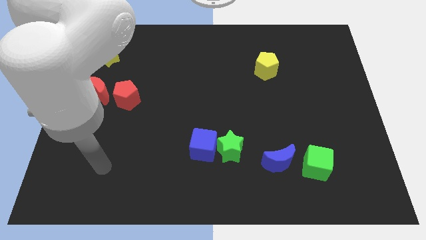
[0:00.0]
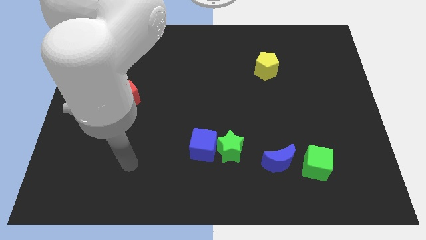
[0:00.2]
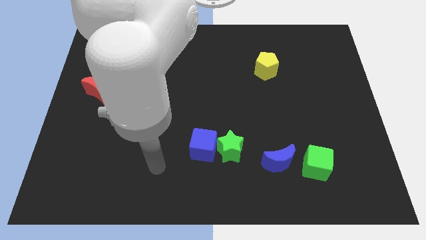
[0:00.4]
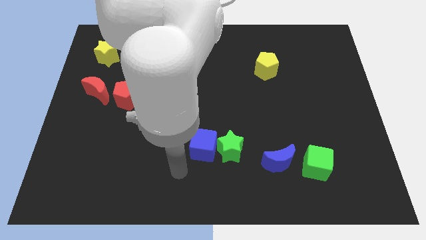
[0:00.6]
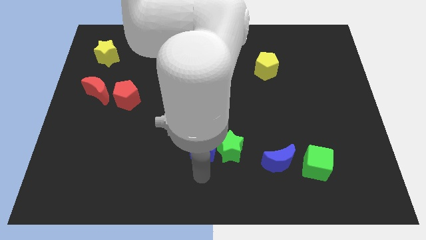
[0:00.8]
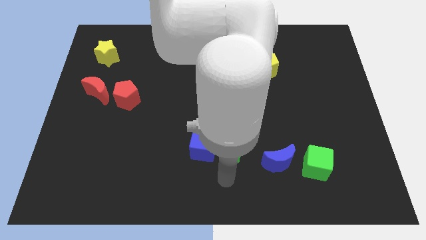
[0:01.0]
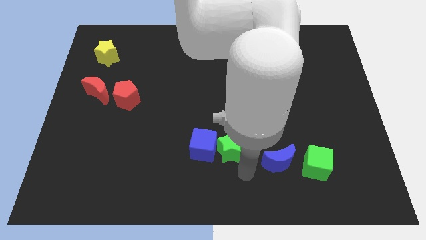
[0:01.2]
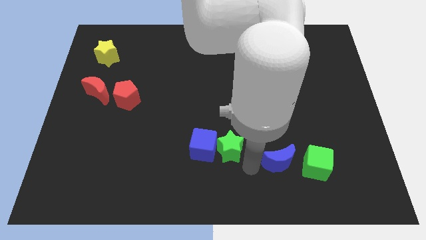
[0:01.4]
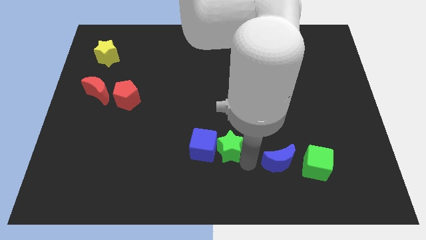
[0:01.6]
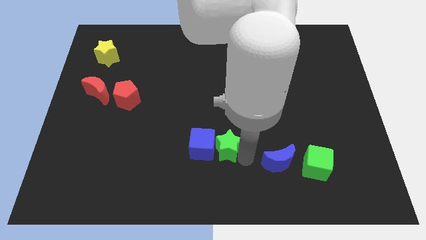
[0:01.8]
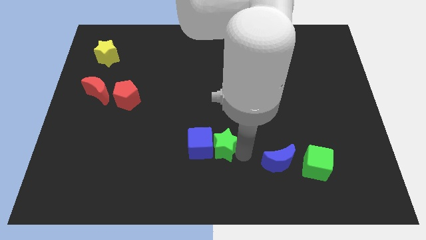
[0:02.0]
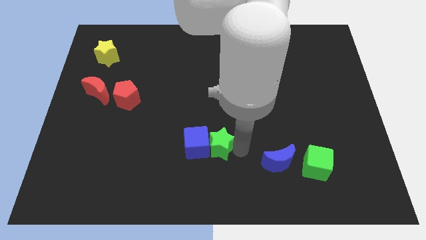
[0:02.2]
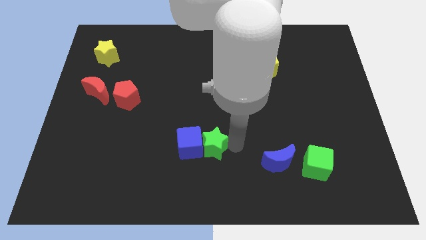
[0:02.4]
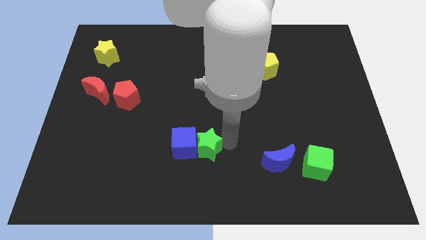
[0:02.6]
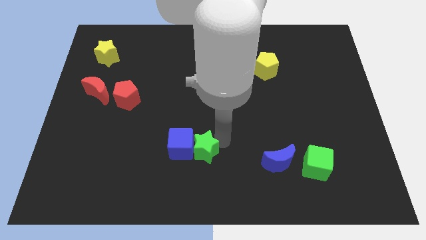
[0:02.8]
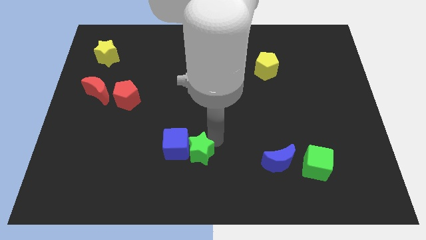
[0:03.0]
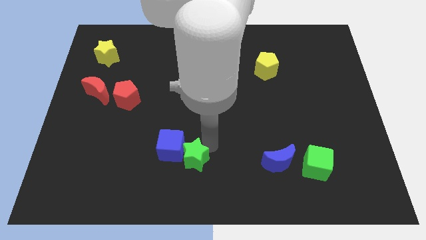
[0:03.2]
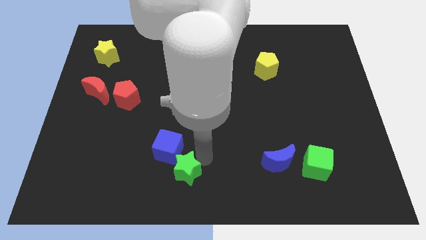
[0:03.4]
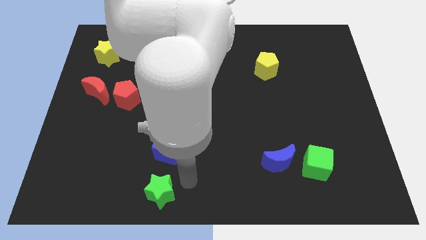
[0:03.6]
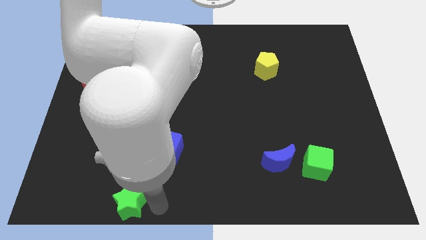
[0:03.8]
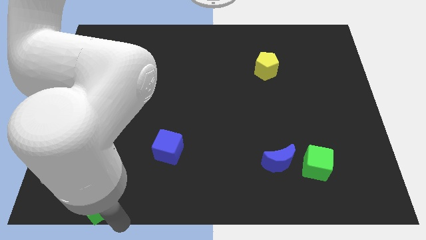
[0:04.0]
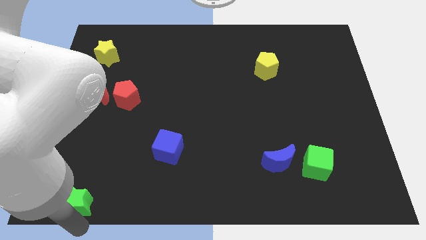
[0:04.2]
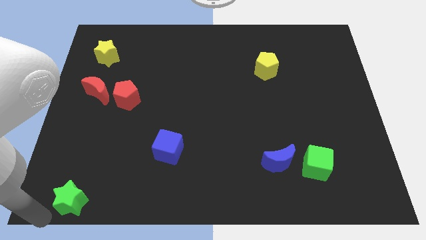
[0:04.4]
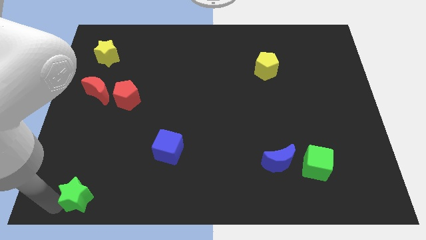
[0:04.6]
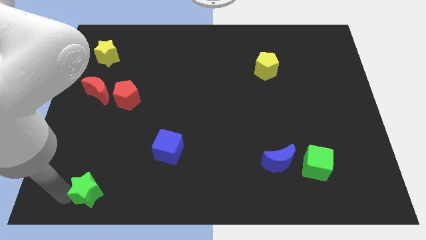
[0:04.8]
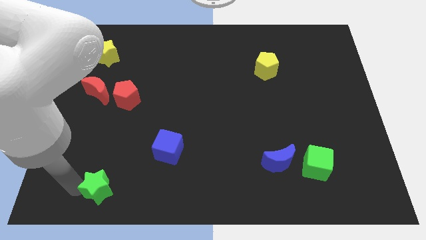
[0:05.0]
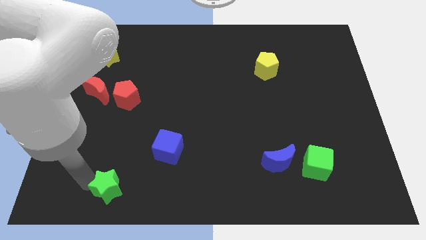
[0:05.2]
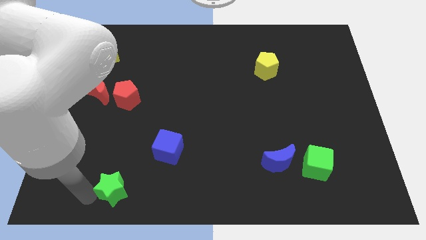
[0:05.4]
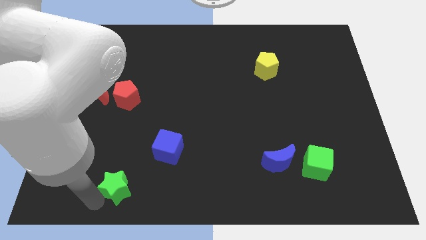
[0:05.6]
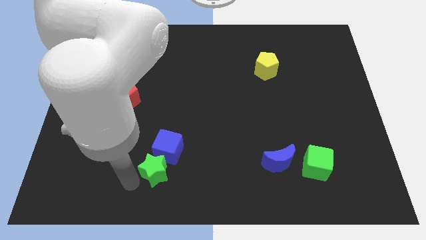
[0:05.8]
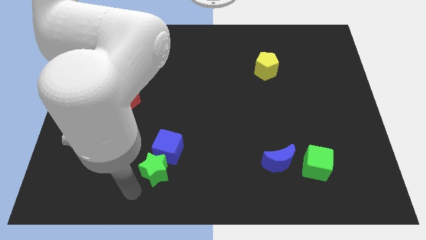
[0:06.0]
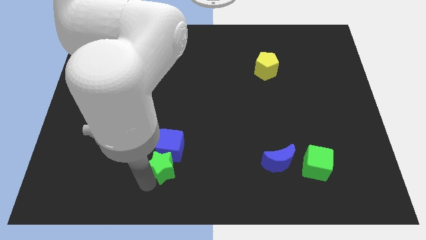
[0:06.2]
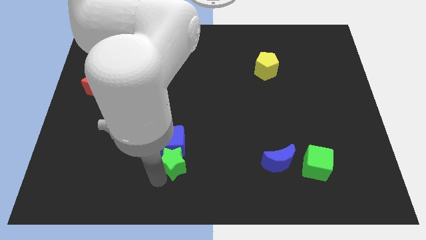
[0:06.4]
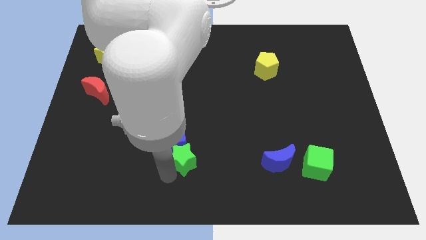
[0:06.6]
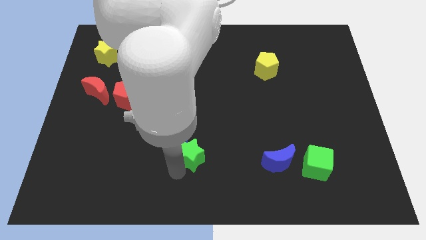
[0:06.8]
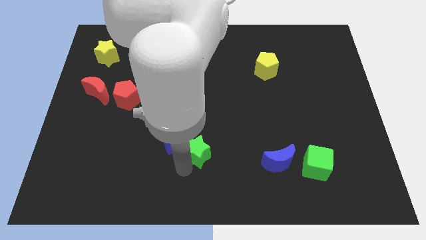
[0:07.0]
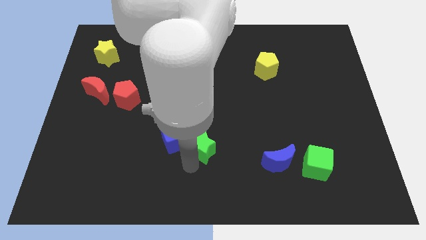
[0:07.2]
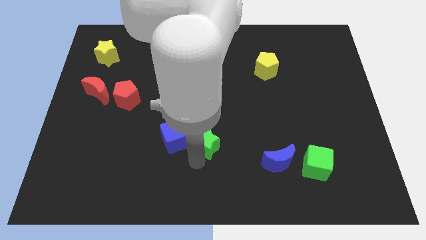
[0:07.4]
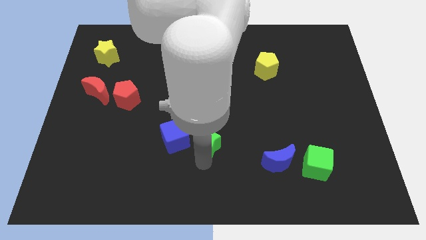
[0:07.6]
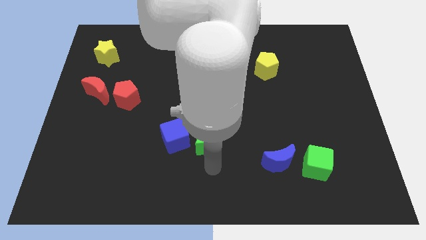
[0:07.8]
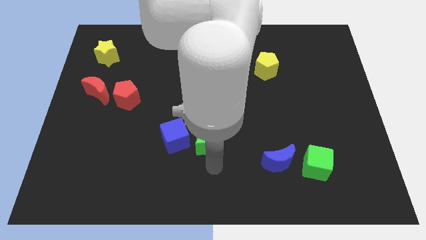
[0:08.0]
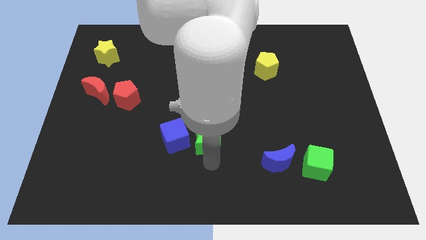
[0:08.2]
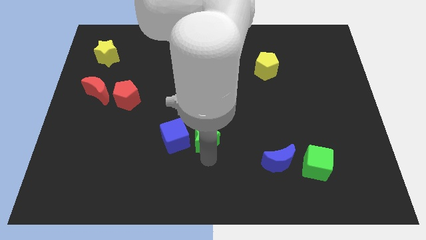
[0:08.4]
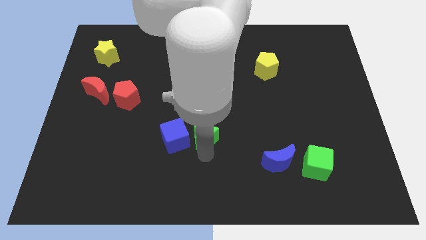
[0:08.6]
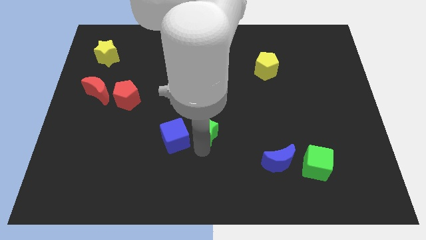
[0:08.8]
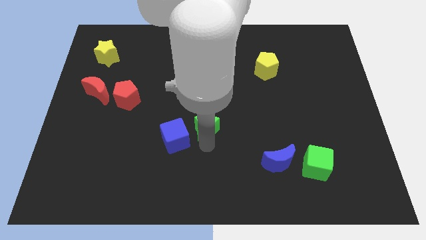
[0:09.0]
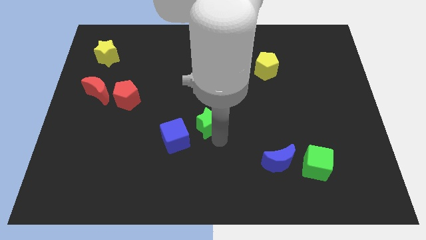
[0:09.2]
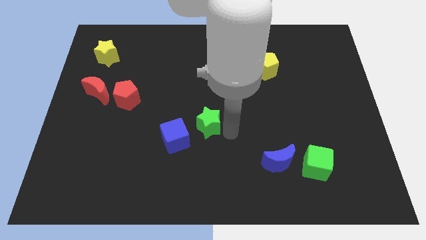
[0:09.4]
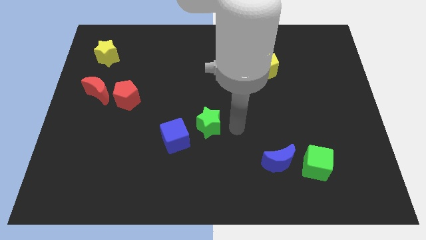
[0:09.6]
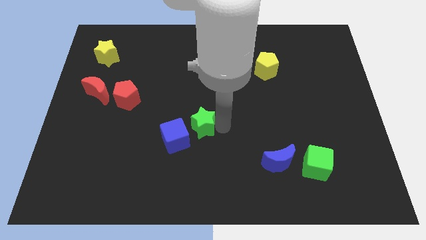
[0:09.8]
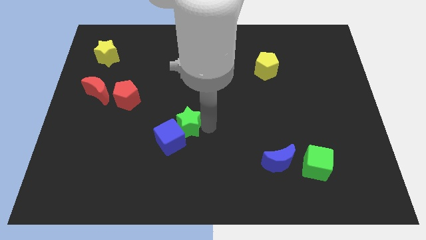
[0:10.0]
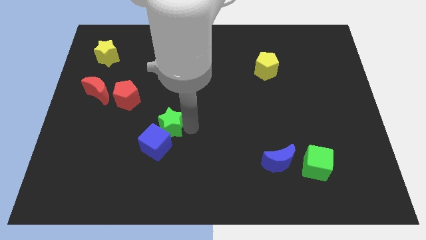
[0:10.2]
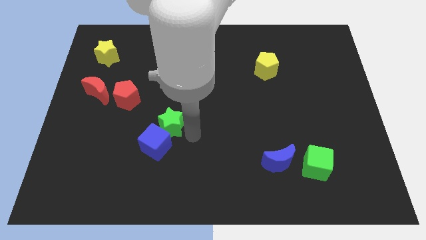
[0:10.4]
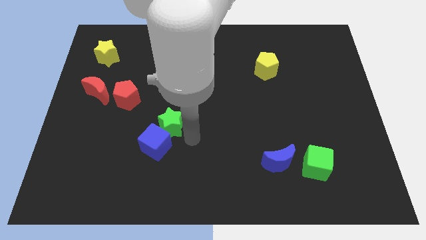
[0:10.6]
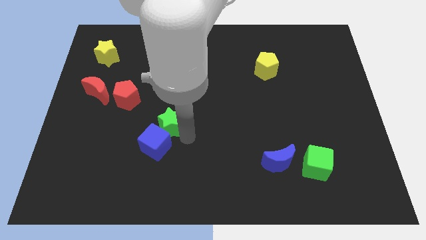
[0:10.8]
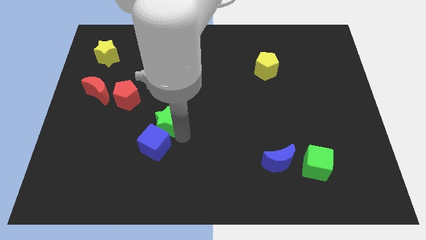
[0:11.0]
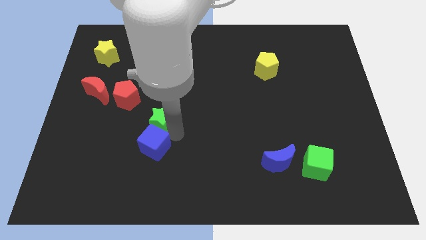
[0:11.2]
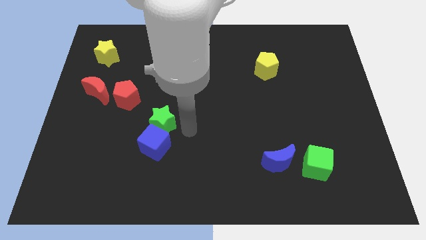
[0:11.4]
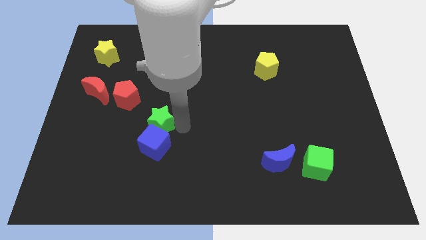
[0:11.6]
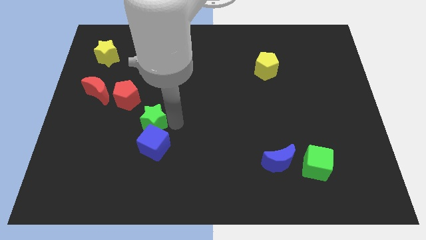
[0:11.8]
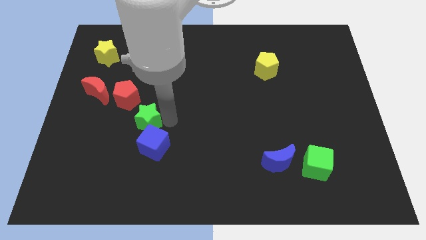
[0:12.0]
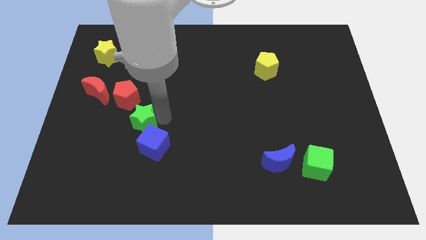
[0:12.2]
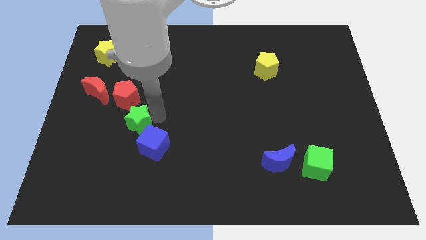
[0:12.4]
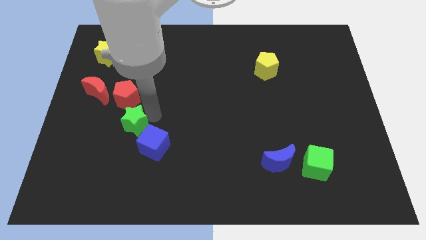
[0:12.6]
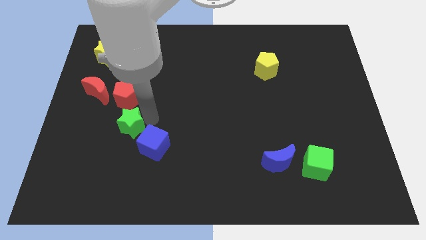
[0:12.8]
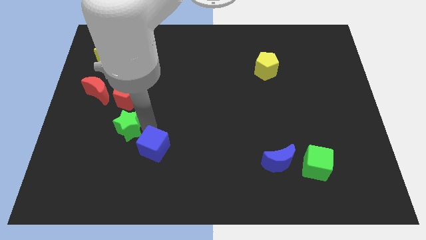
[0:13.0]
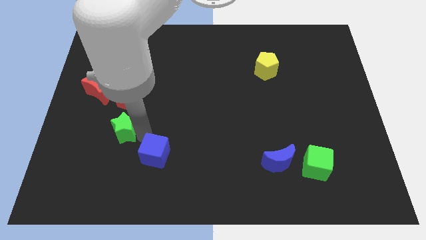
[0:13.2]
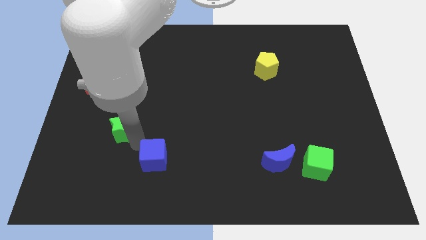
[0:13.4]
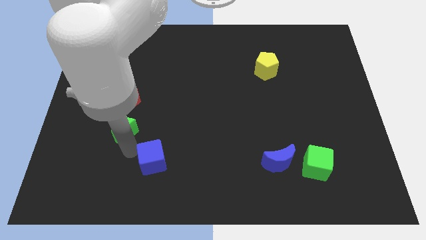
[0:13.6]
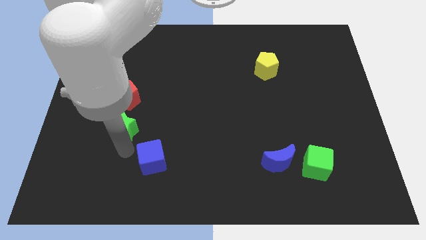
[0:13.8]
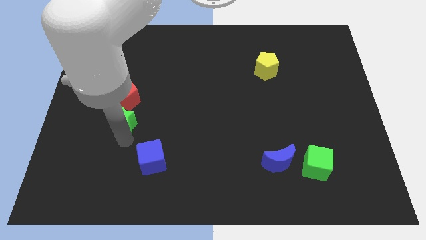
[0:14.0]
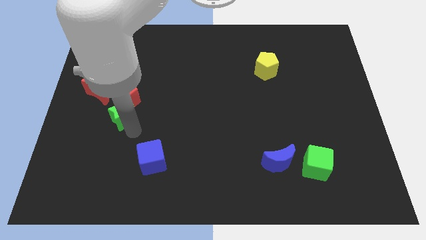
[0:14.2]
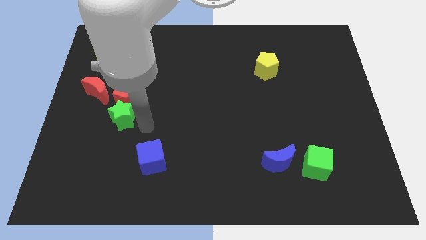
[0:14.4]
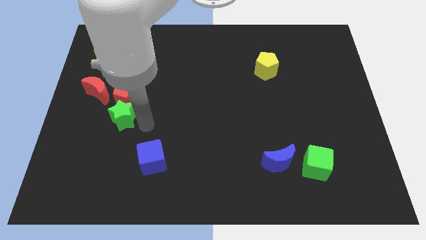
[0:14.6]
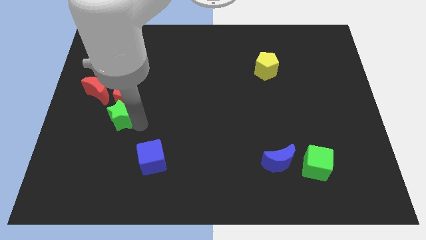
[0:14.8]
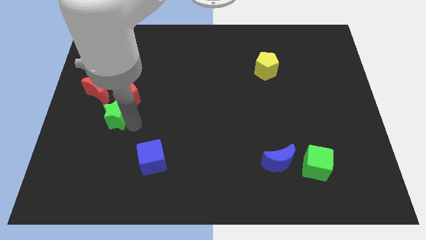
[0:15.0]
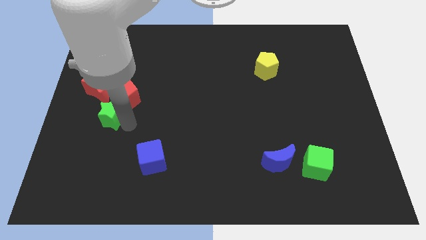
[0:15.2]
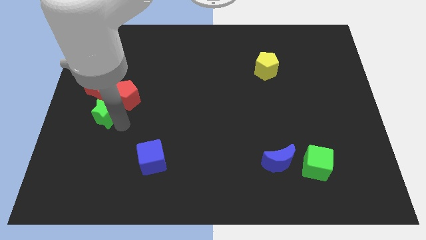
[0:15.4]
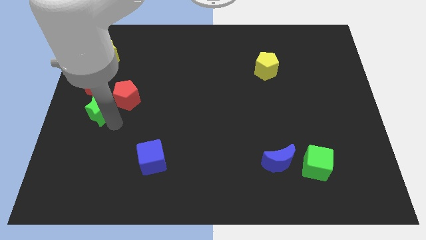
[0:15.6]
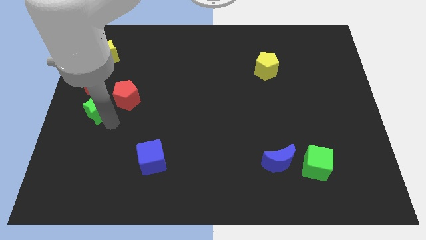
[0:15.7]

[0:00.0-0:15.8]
move the green star next to the red moon
